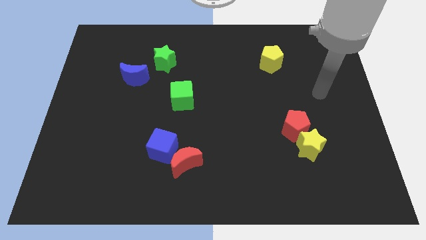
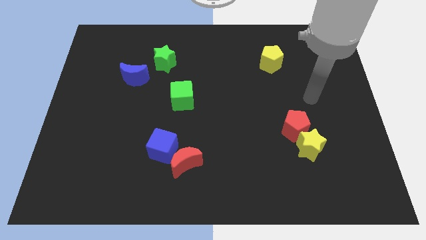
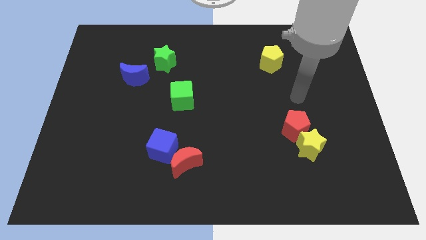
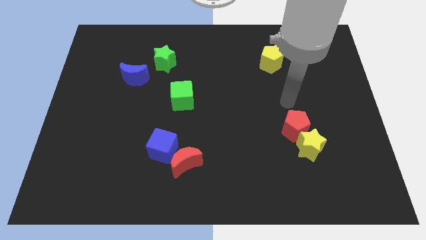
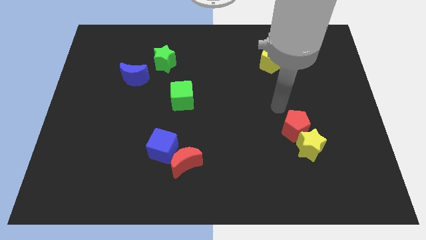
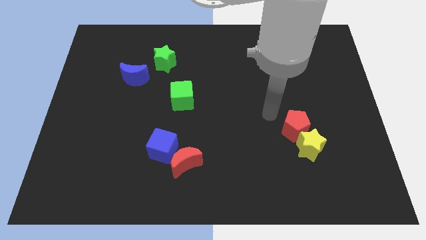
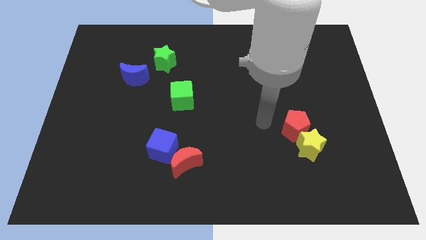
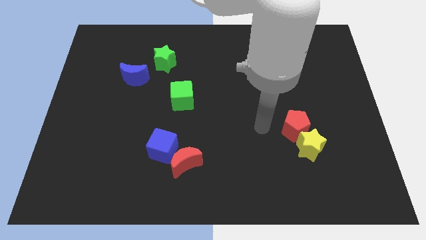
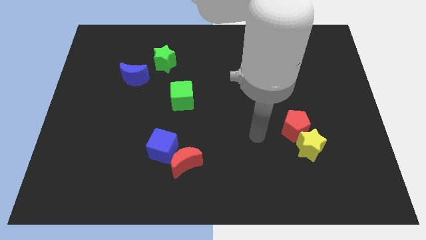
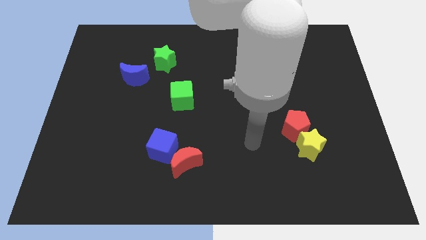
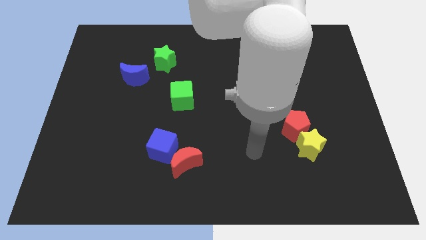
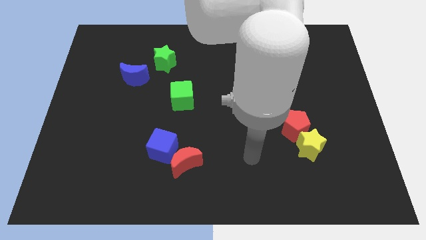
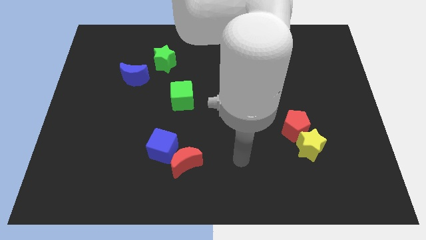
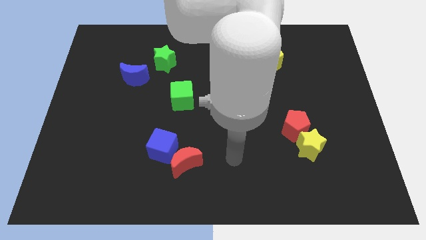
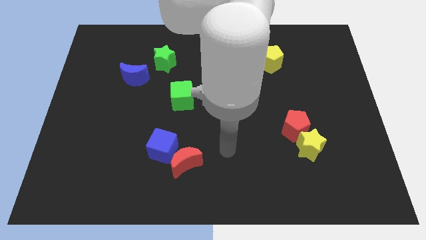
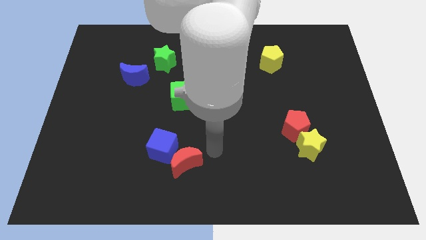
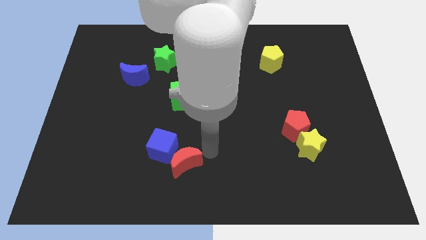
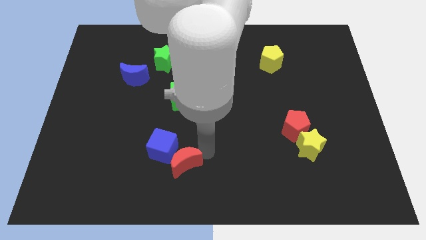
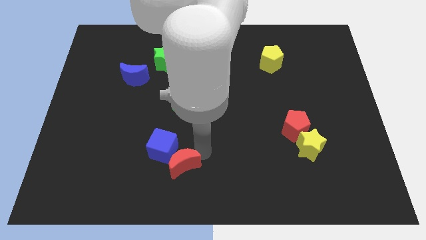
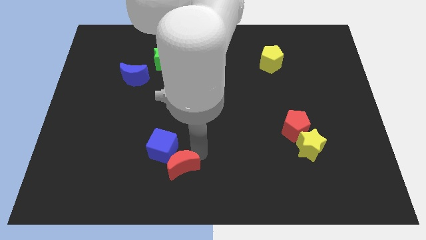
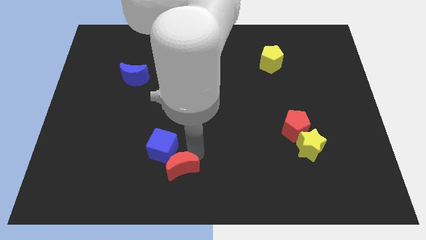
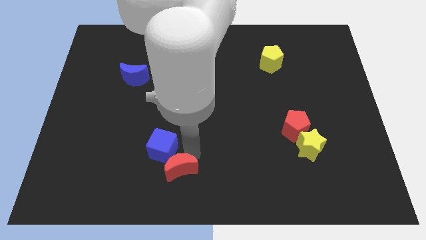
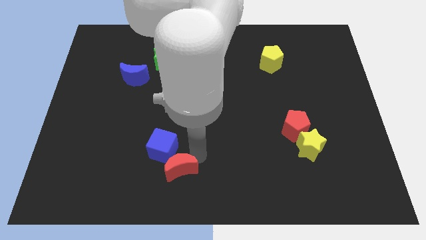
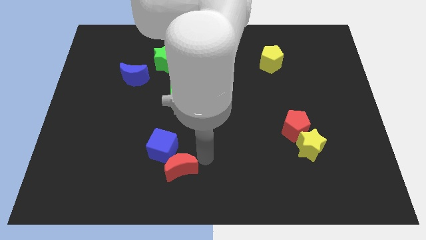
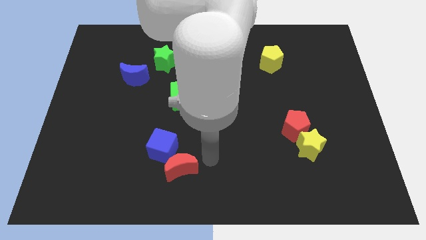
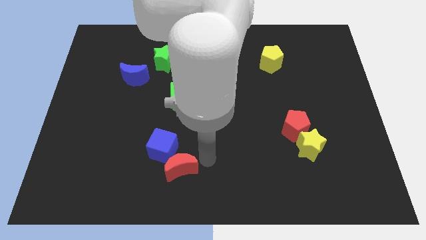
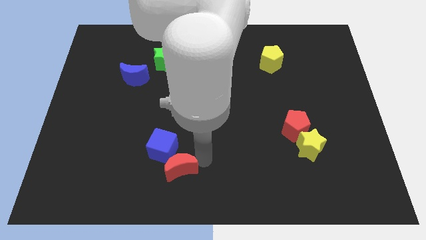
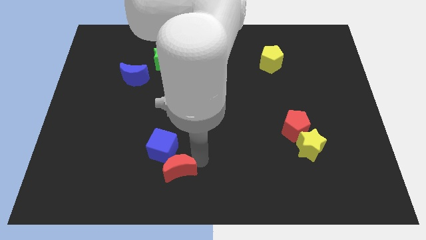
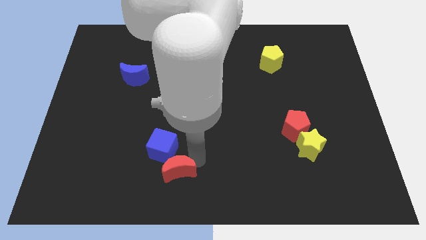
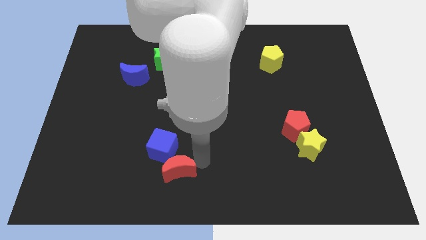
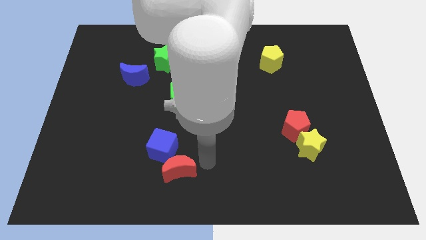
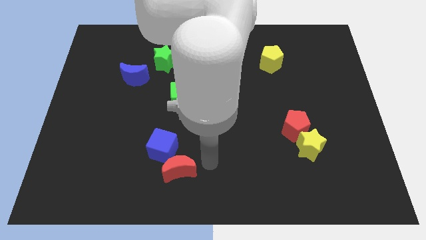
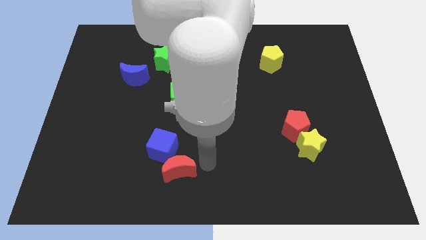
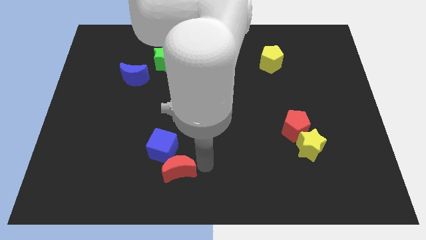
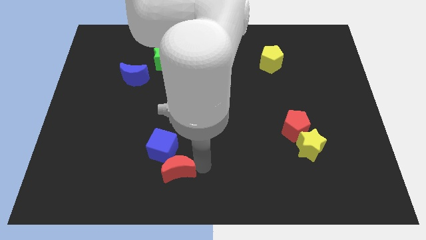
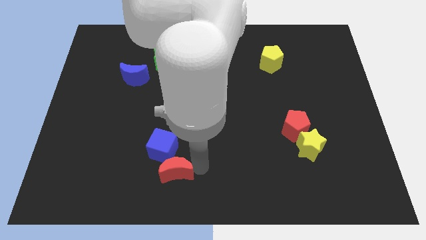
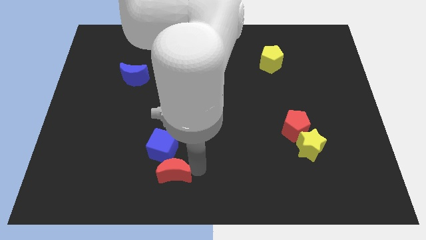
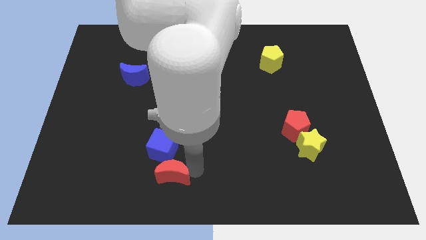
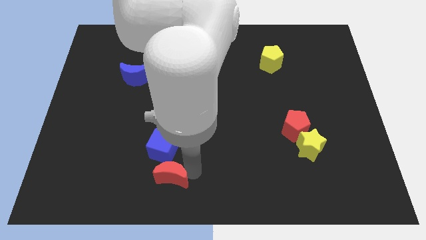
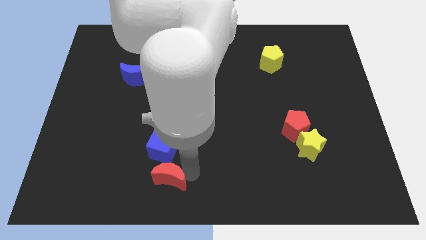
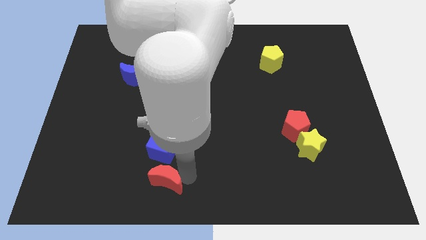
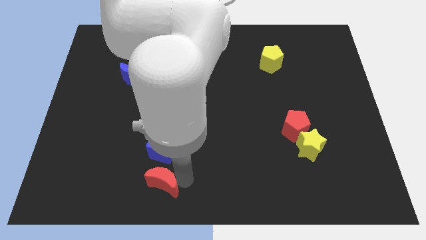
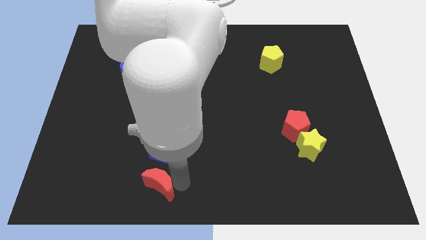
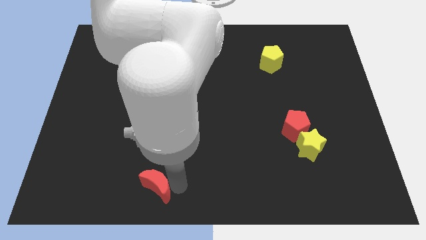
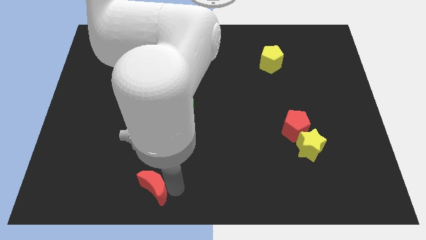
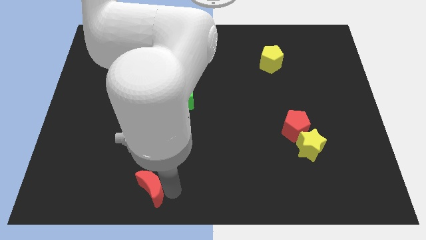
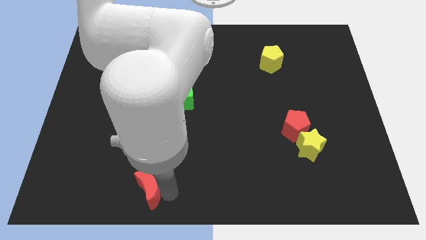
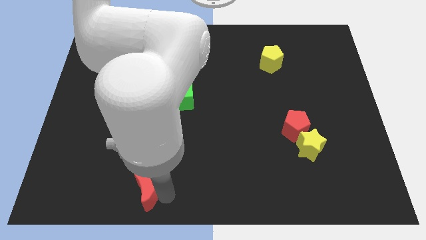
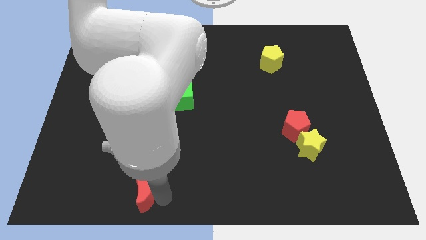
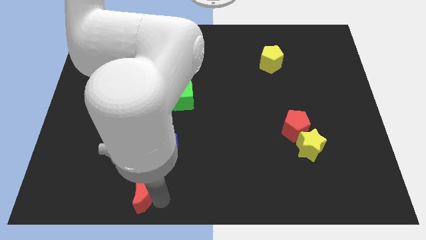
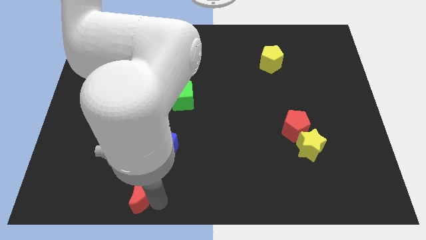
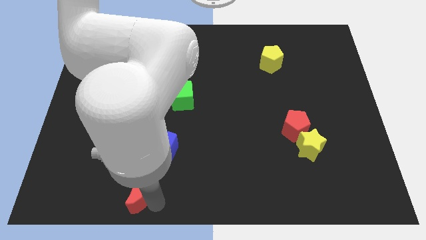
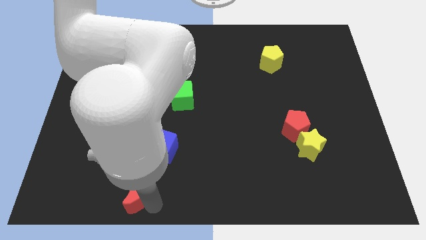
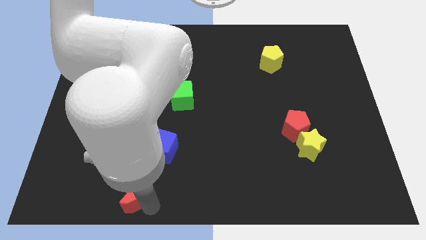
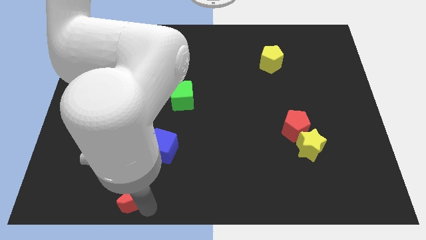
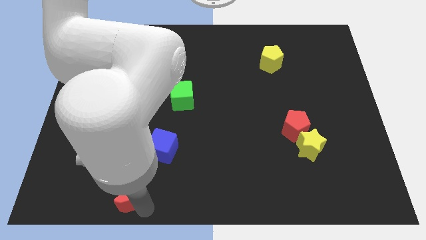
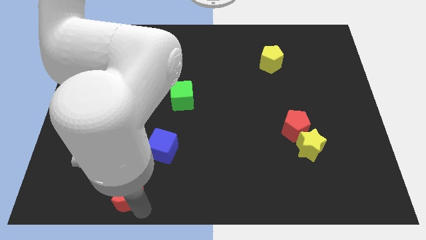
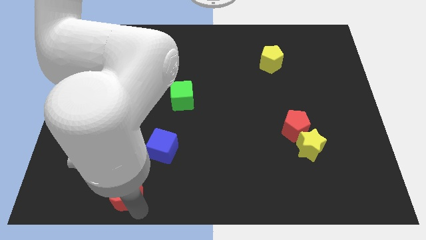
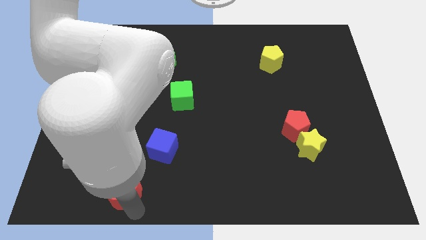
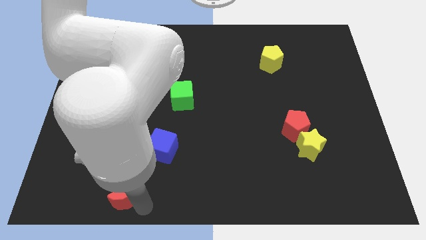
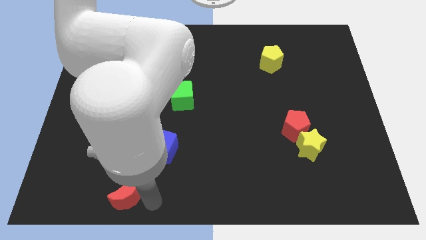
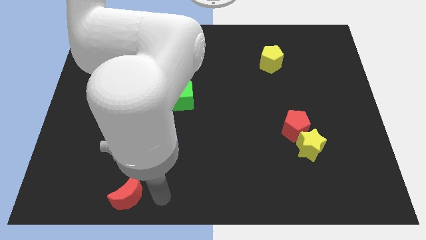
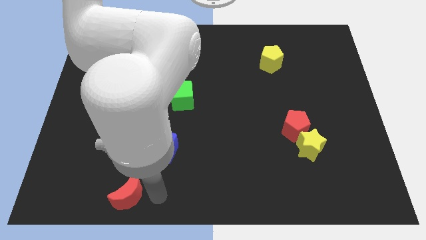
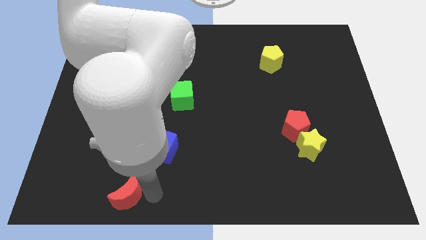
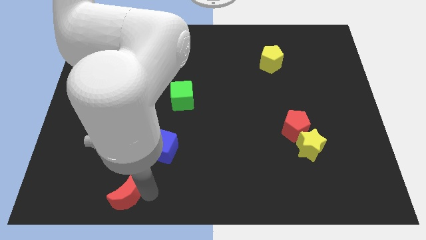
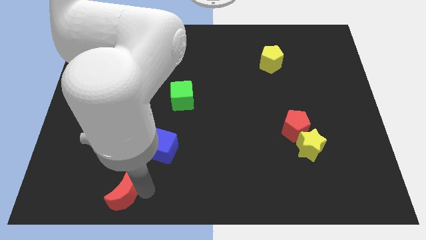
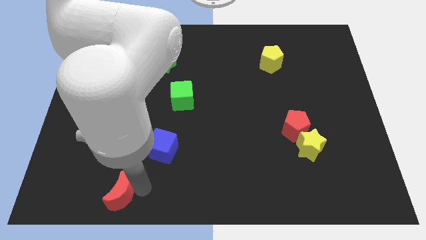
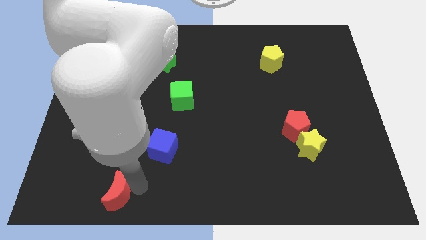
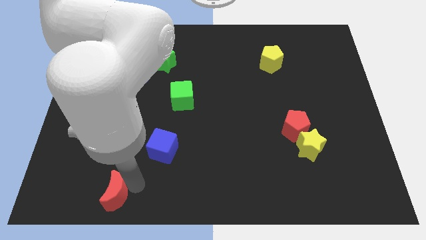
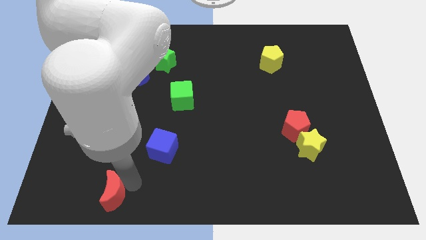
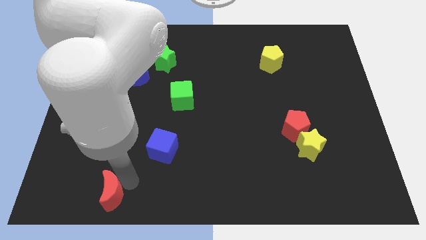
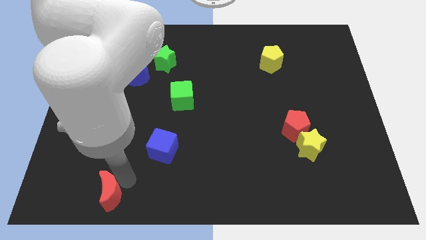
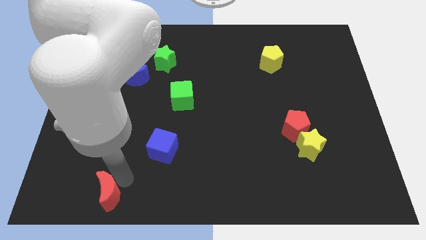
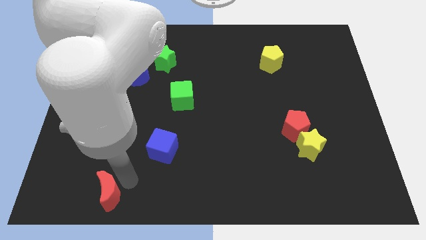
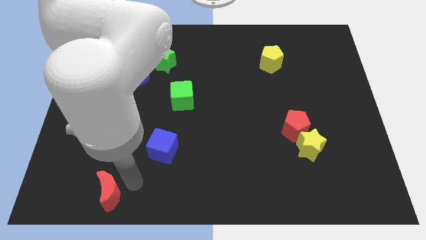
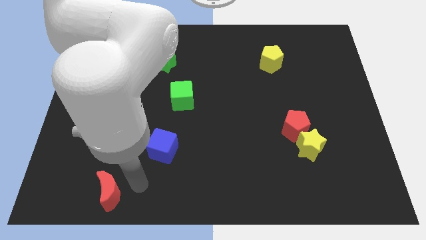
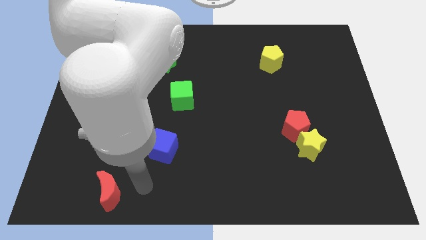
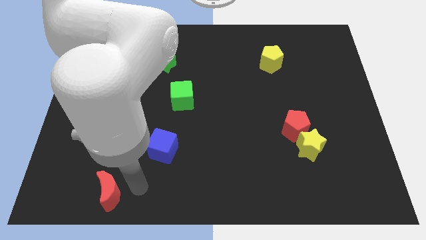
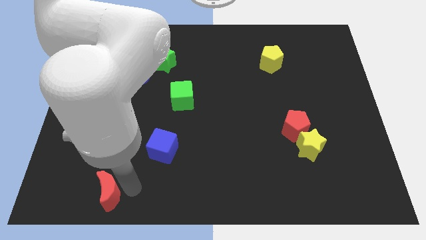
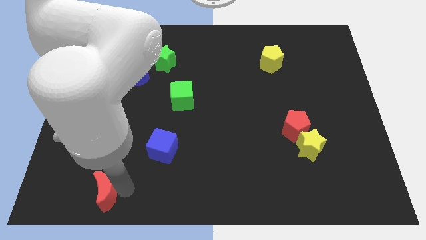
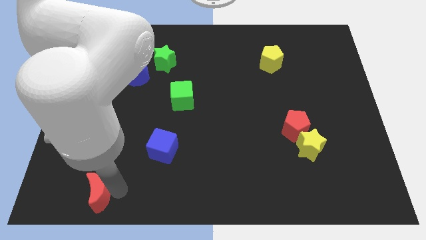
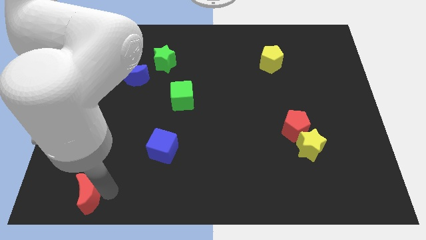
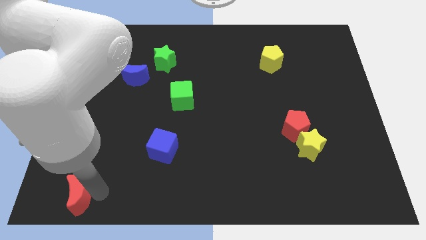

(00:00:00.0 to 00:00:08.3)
push the red moon to the bottom left of the board
